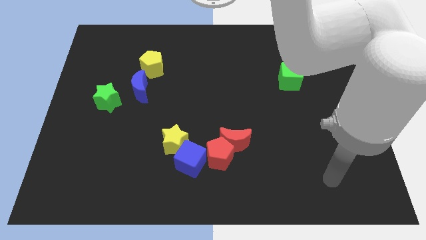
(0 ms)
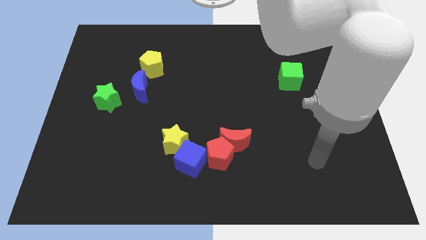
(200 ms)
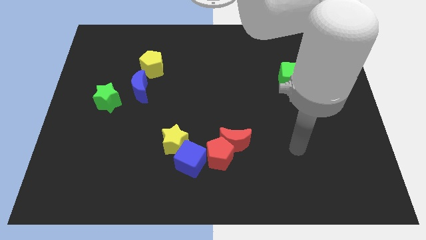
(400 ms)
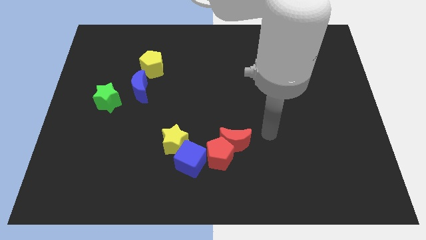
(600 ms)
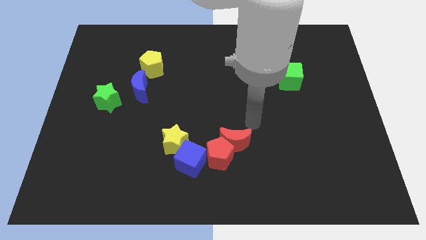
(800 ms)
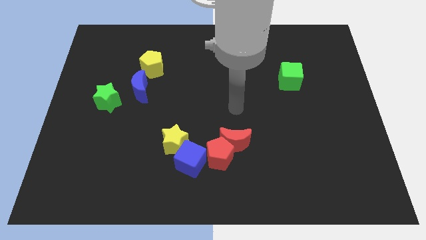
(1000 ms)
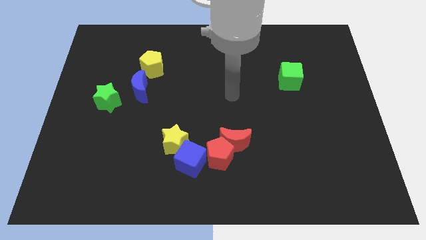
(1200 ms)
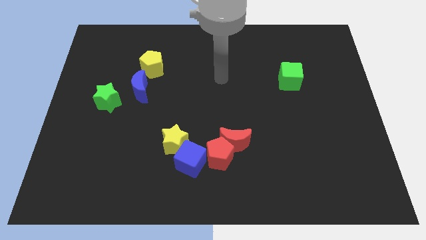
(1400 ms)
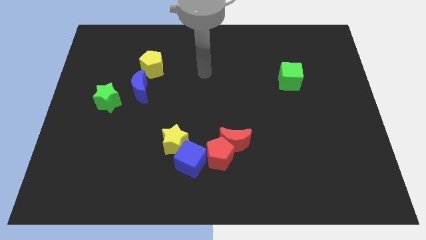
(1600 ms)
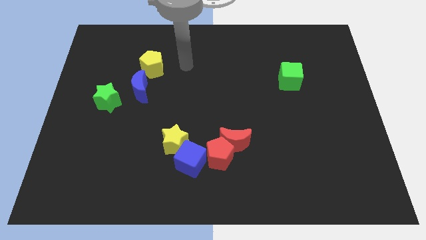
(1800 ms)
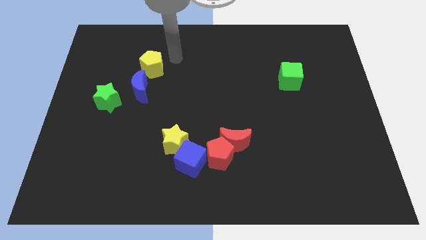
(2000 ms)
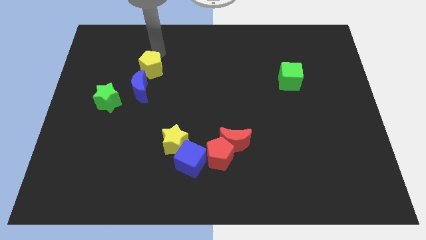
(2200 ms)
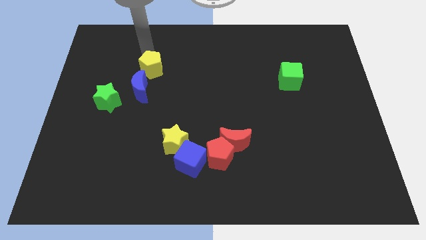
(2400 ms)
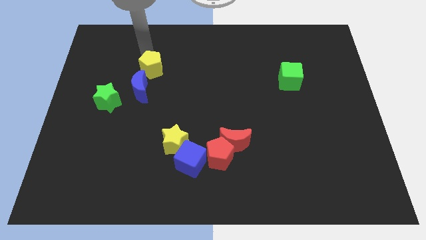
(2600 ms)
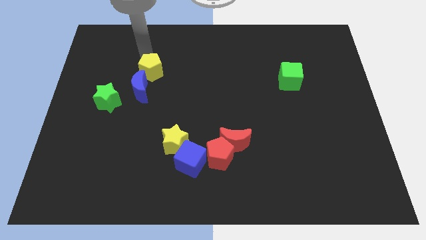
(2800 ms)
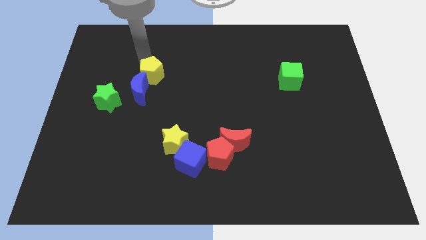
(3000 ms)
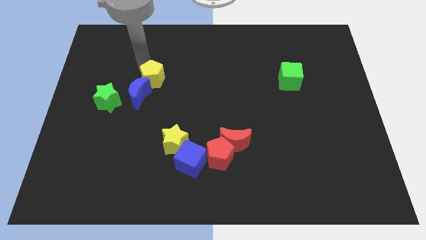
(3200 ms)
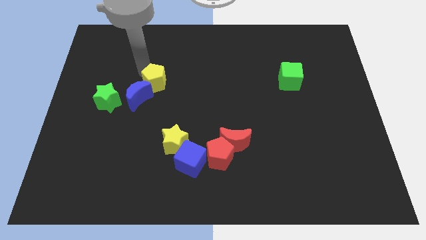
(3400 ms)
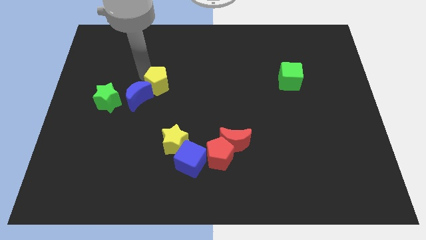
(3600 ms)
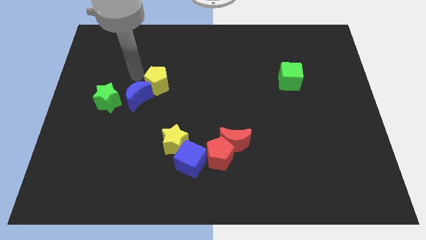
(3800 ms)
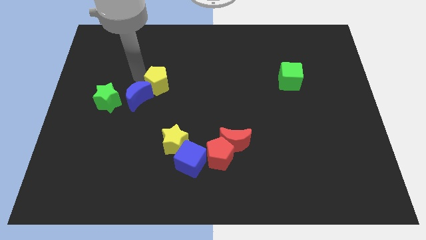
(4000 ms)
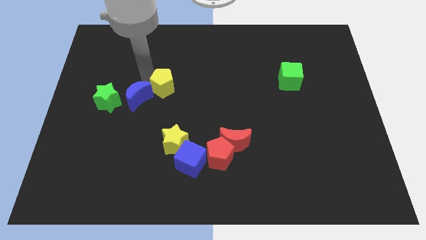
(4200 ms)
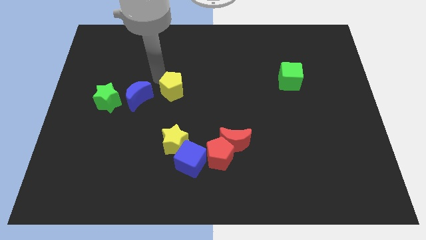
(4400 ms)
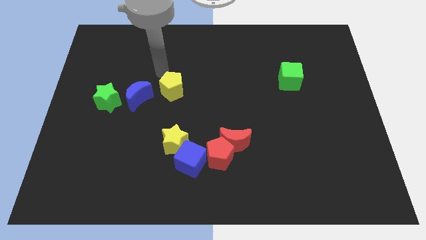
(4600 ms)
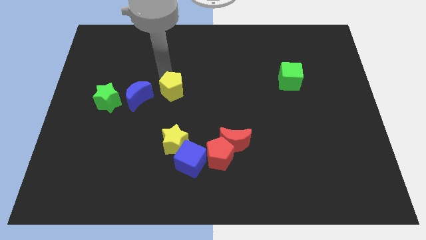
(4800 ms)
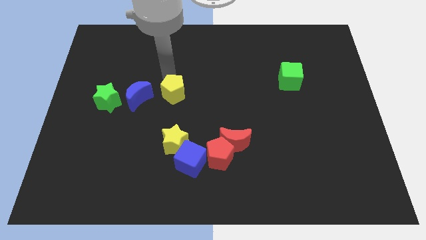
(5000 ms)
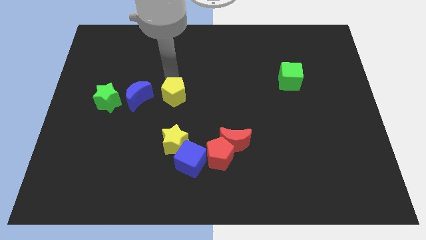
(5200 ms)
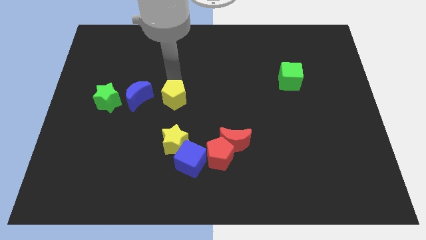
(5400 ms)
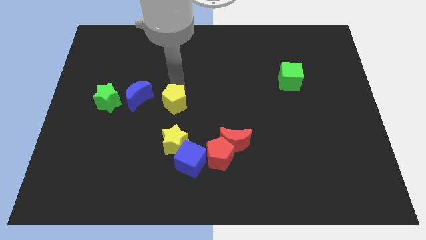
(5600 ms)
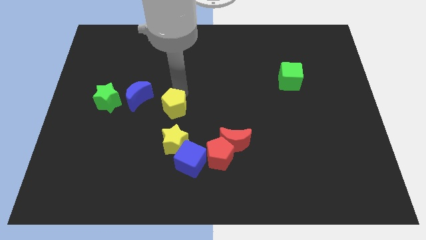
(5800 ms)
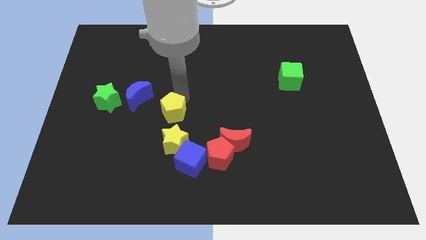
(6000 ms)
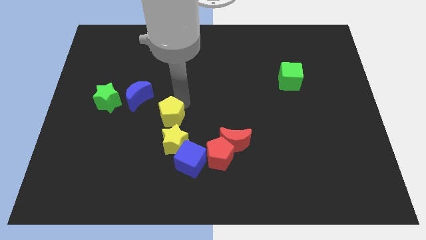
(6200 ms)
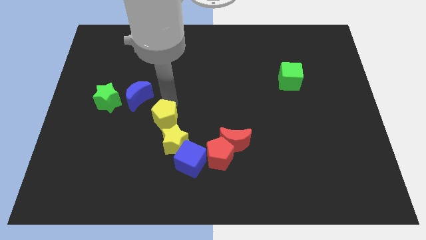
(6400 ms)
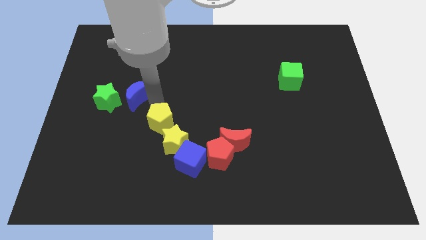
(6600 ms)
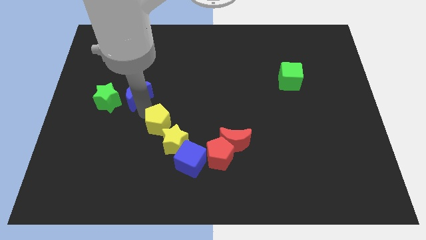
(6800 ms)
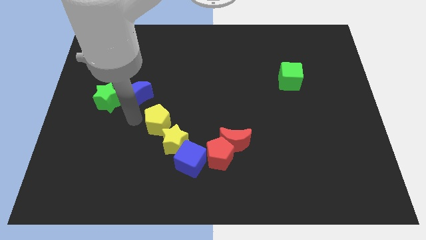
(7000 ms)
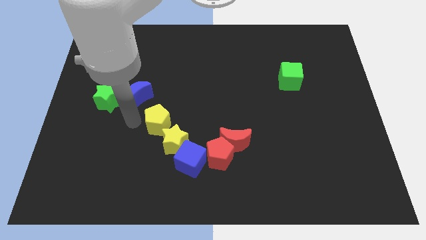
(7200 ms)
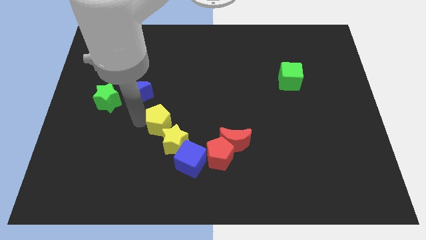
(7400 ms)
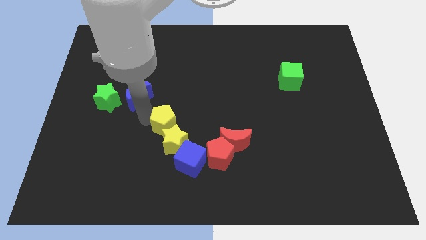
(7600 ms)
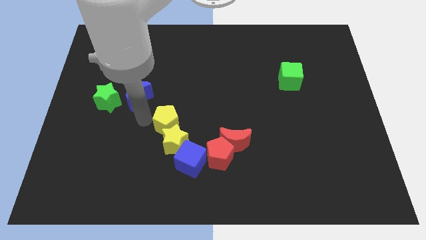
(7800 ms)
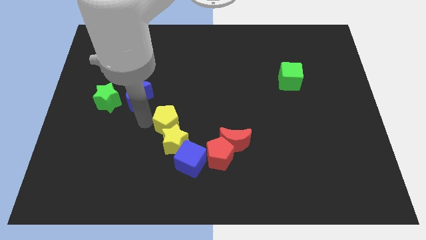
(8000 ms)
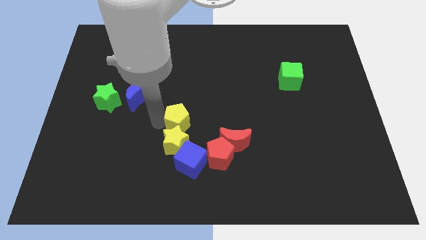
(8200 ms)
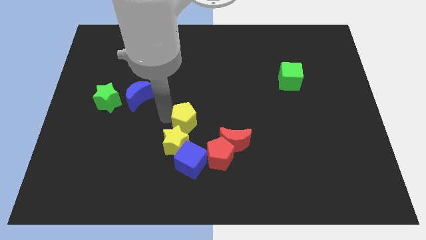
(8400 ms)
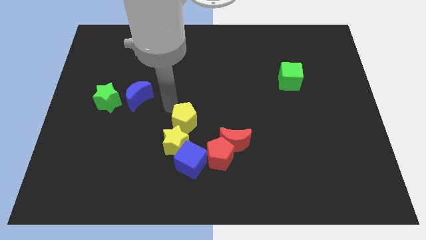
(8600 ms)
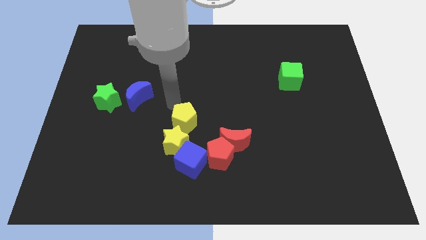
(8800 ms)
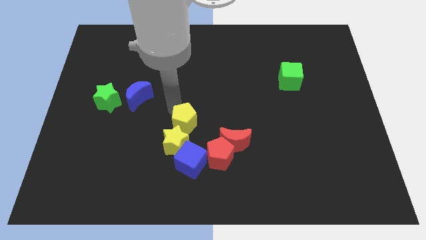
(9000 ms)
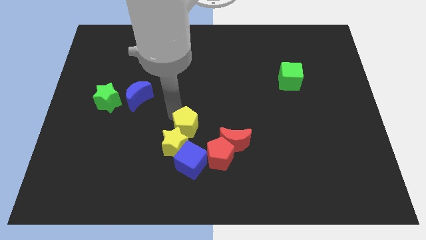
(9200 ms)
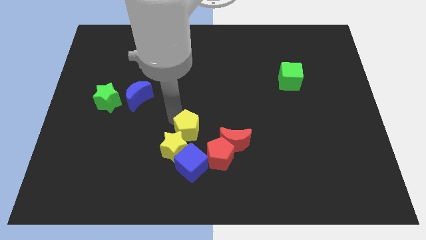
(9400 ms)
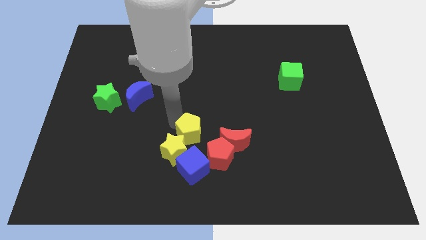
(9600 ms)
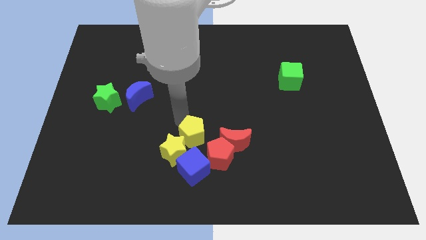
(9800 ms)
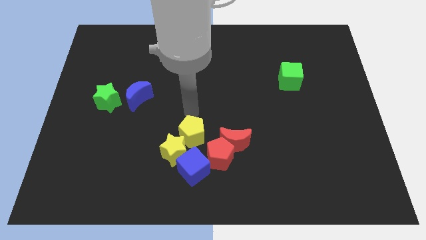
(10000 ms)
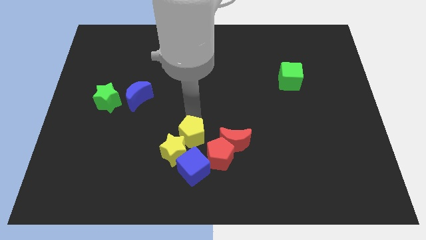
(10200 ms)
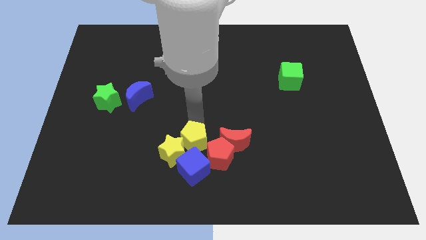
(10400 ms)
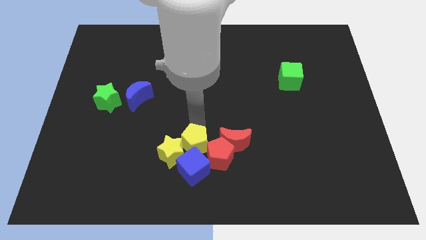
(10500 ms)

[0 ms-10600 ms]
push the yellow pentagon towards the blue cube

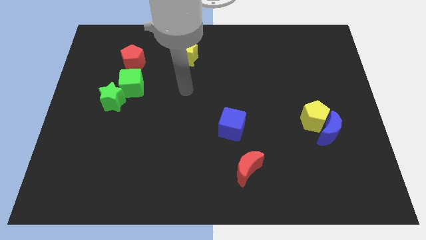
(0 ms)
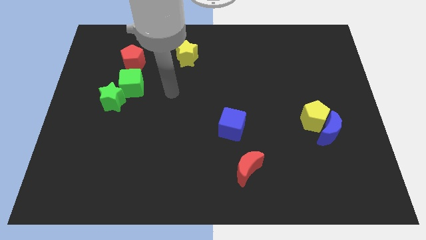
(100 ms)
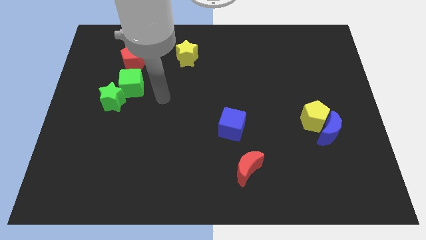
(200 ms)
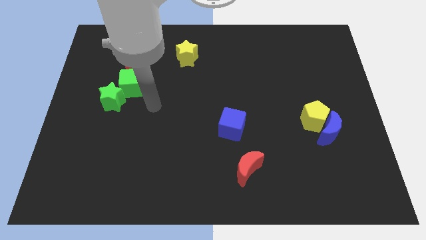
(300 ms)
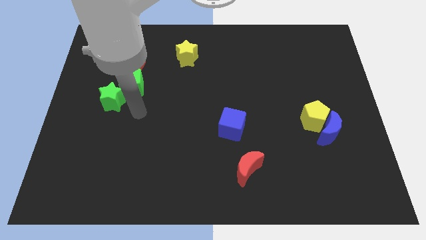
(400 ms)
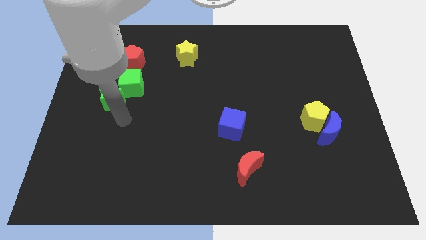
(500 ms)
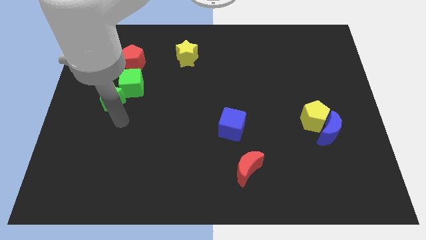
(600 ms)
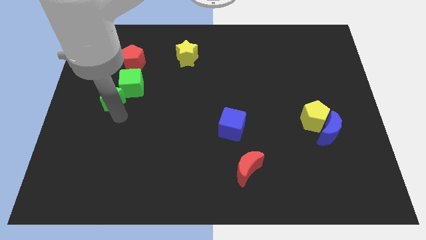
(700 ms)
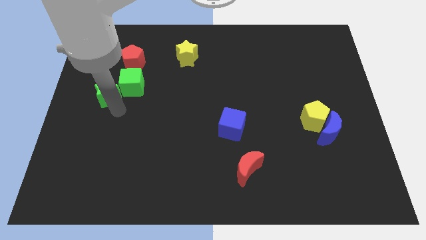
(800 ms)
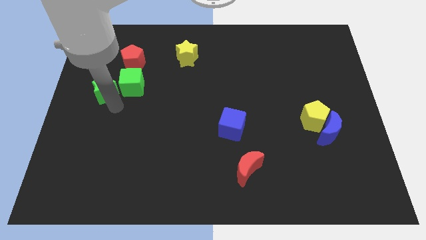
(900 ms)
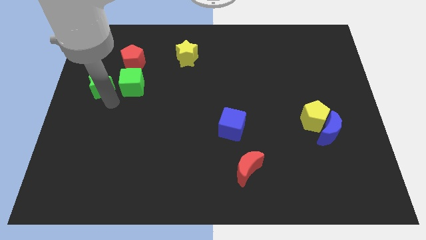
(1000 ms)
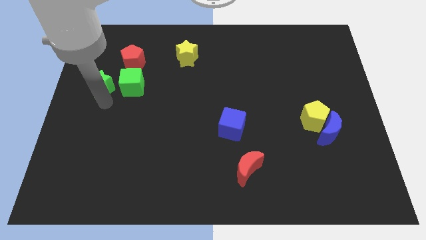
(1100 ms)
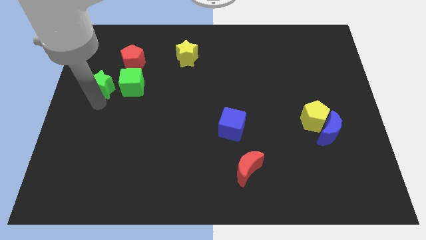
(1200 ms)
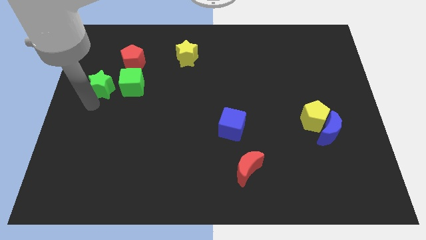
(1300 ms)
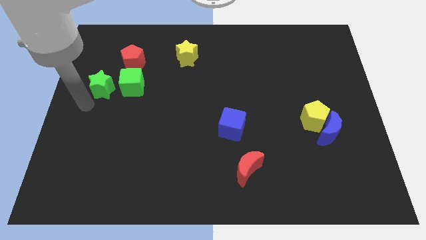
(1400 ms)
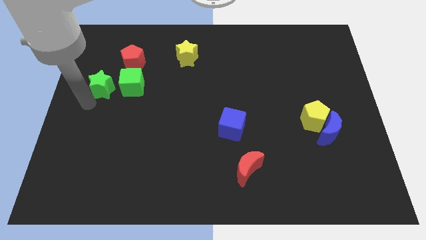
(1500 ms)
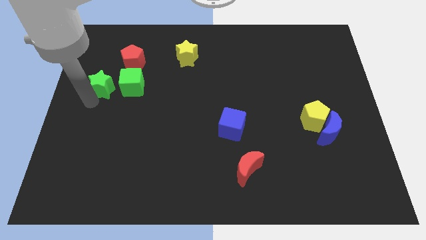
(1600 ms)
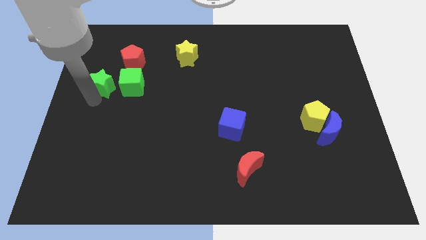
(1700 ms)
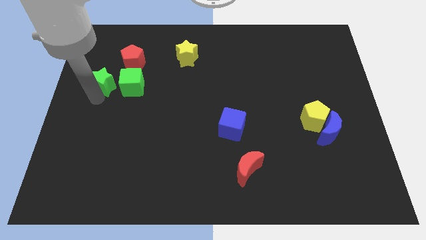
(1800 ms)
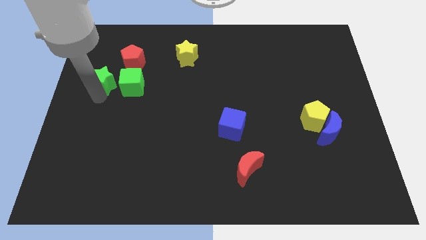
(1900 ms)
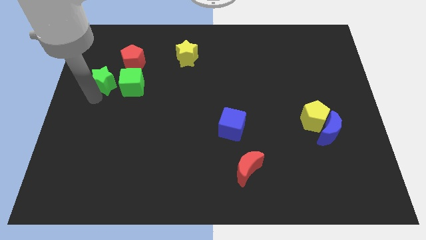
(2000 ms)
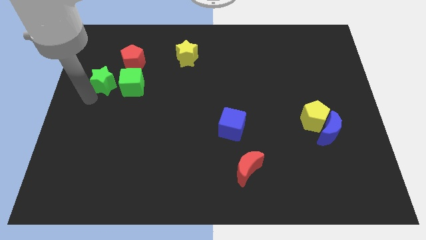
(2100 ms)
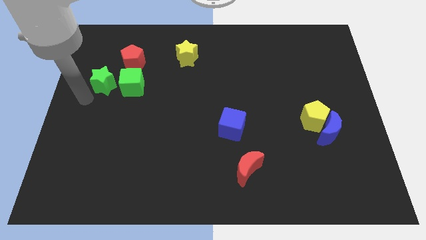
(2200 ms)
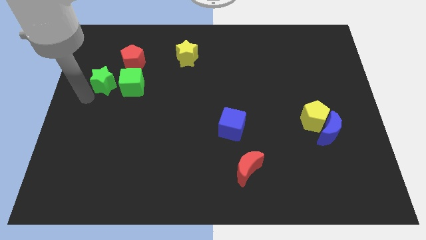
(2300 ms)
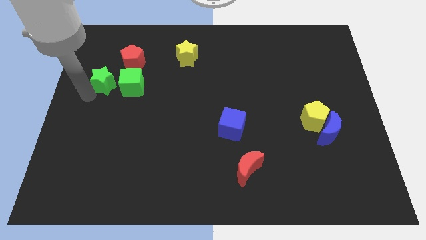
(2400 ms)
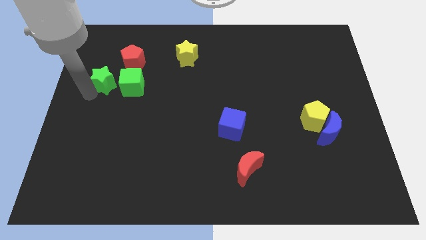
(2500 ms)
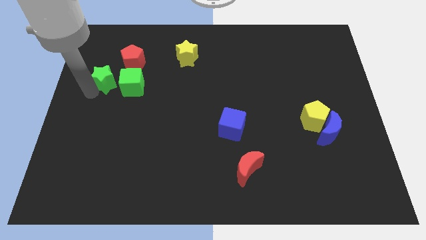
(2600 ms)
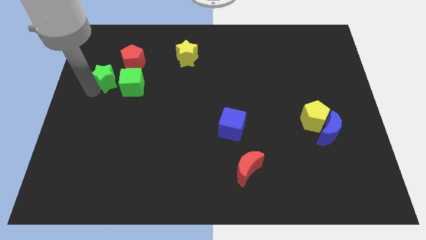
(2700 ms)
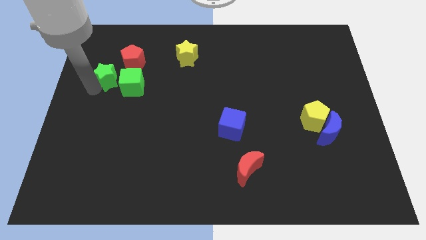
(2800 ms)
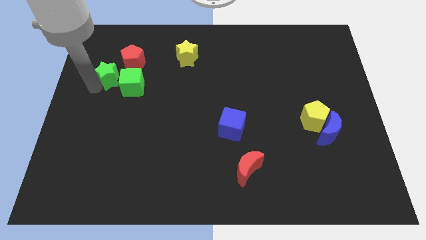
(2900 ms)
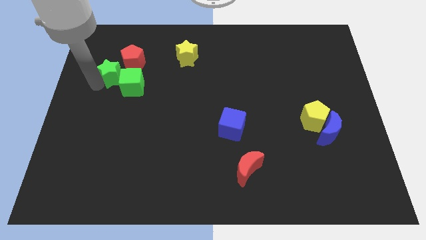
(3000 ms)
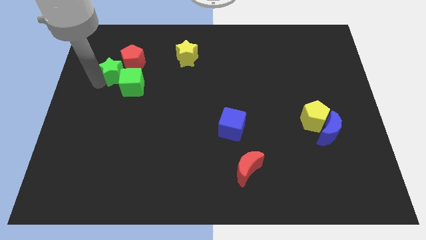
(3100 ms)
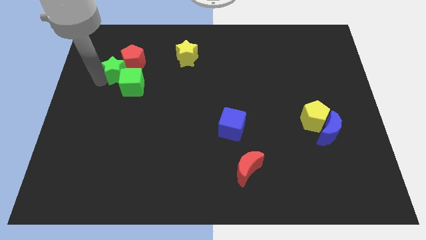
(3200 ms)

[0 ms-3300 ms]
slide the green star close to the red pentagon
